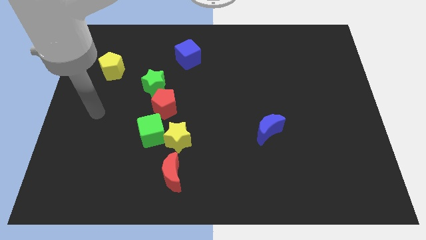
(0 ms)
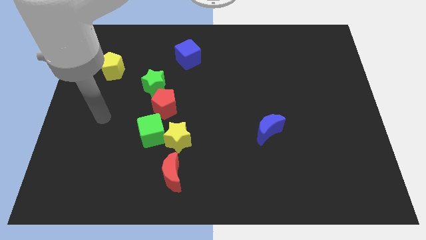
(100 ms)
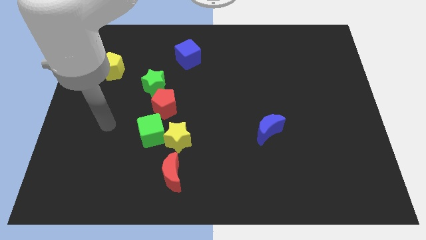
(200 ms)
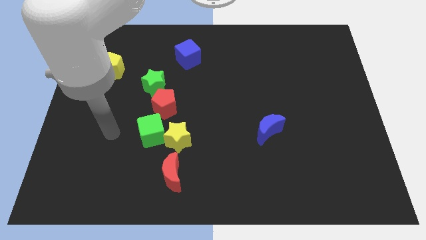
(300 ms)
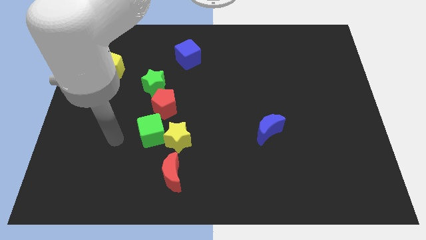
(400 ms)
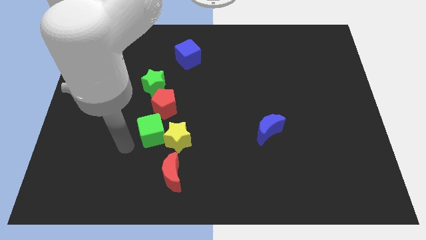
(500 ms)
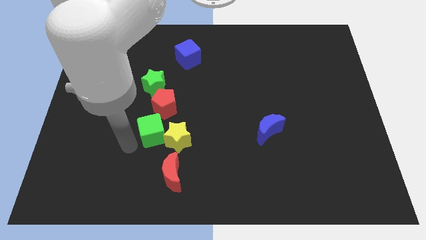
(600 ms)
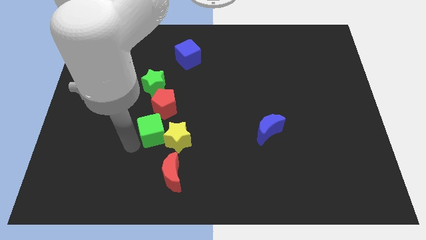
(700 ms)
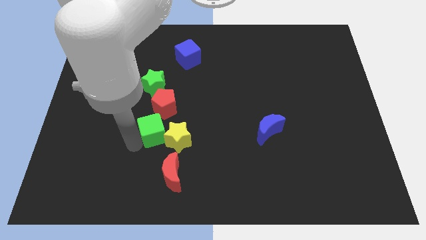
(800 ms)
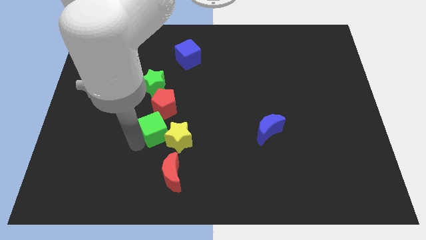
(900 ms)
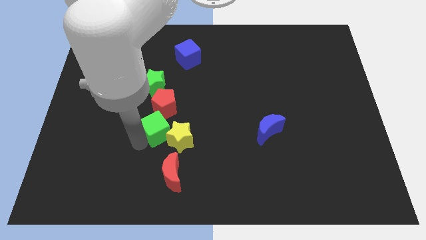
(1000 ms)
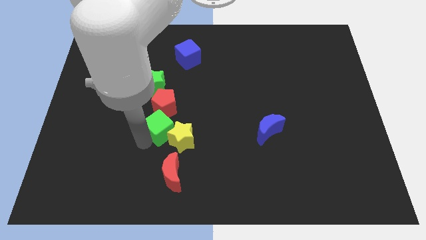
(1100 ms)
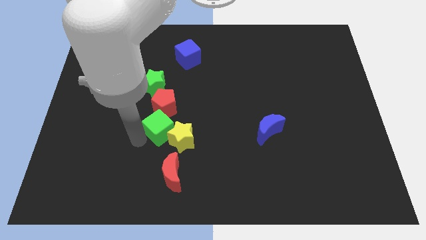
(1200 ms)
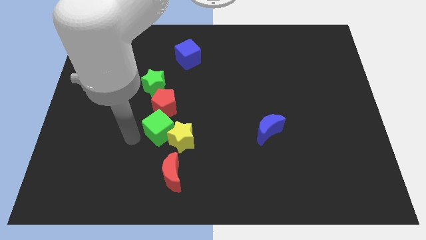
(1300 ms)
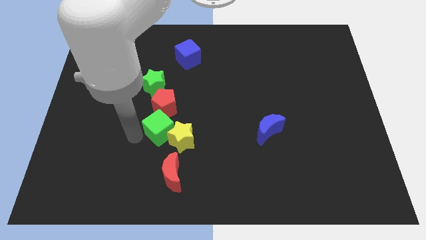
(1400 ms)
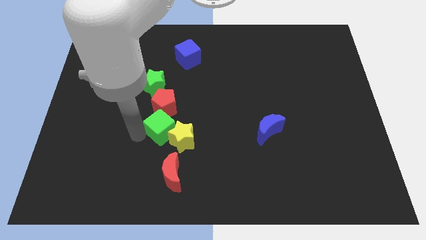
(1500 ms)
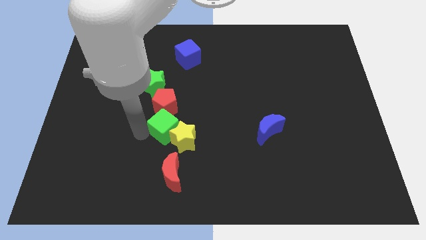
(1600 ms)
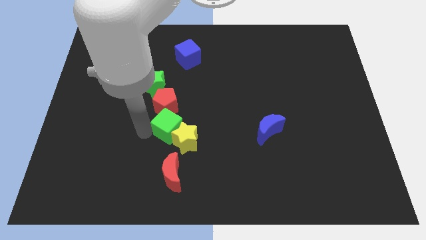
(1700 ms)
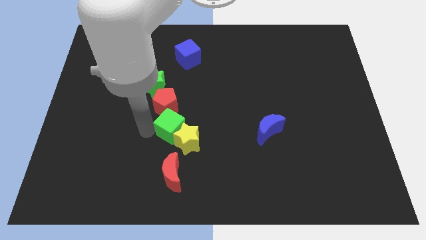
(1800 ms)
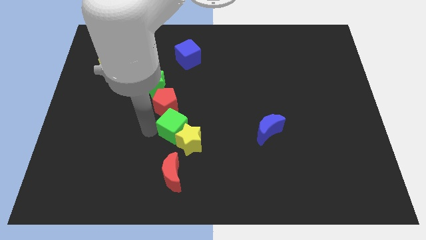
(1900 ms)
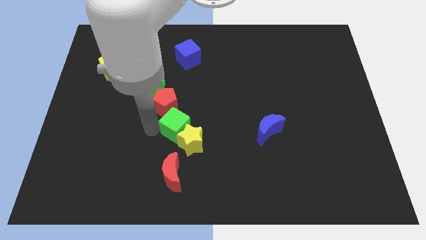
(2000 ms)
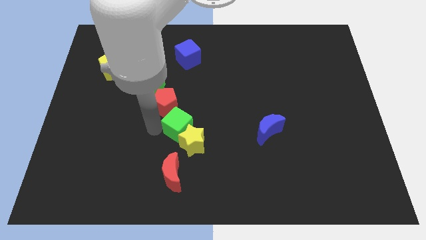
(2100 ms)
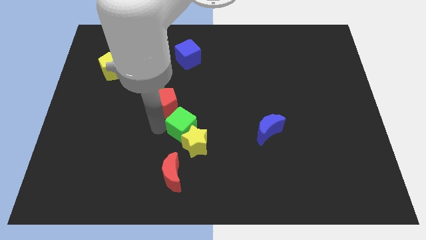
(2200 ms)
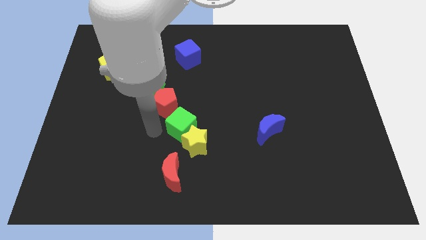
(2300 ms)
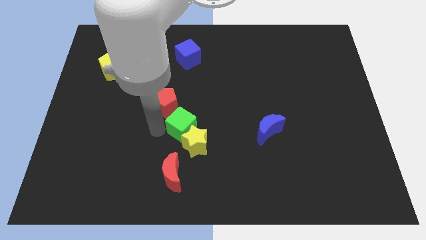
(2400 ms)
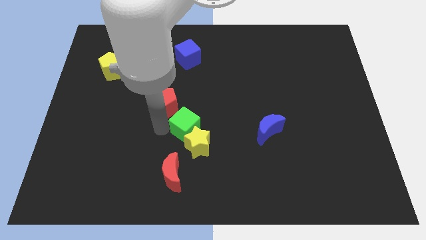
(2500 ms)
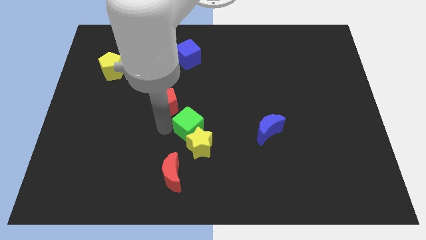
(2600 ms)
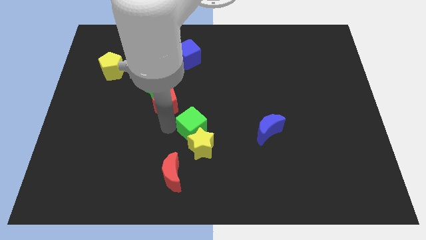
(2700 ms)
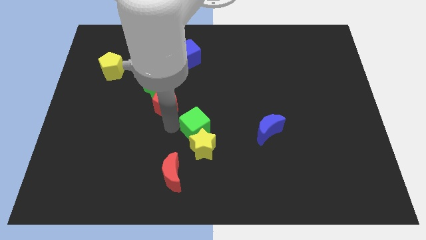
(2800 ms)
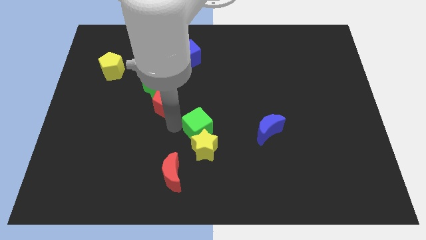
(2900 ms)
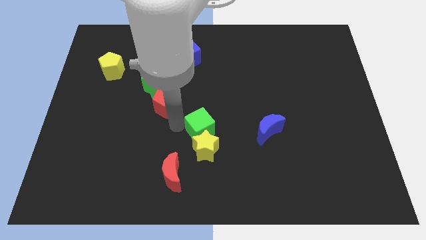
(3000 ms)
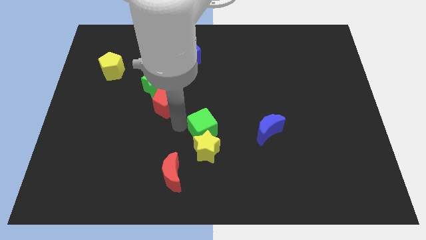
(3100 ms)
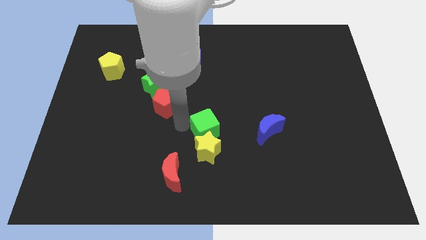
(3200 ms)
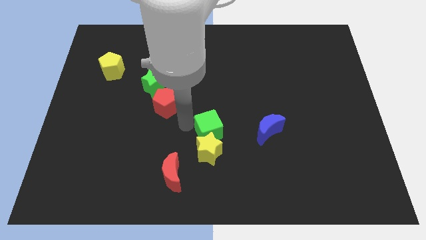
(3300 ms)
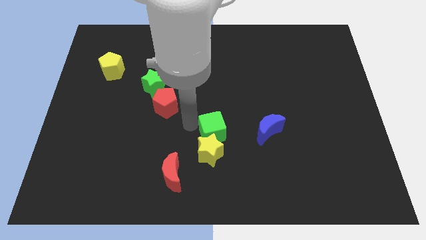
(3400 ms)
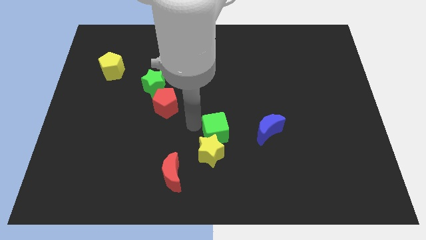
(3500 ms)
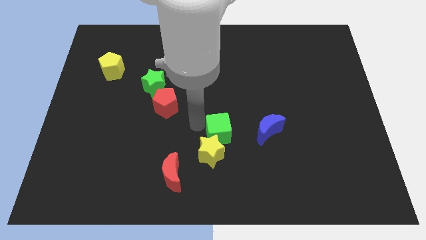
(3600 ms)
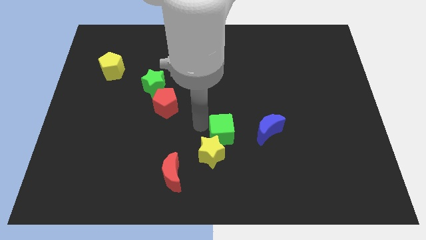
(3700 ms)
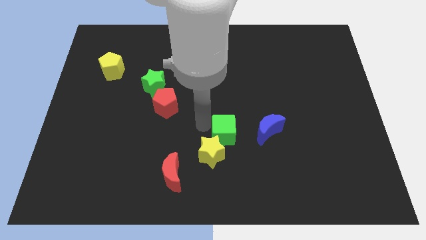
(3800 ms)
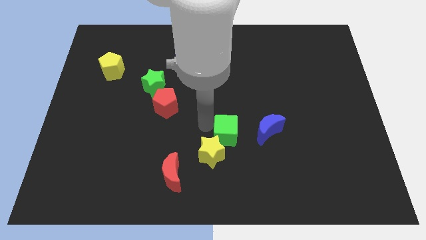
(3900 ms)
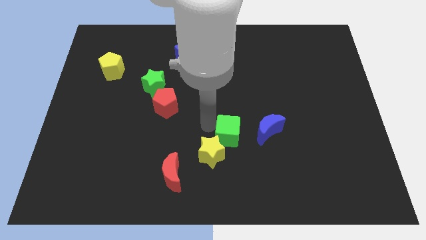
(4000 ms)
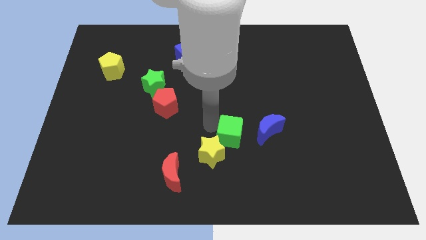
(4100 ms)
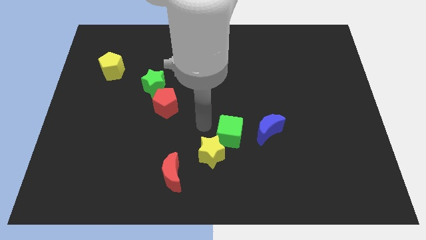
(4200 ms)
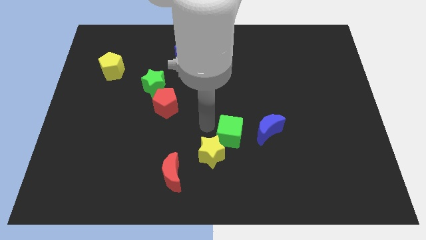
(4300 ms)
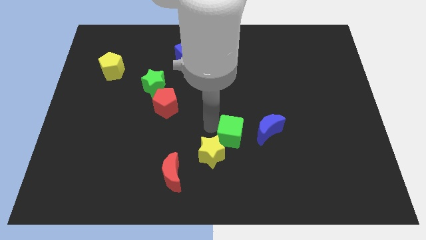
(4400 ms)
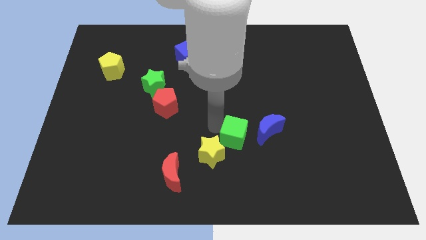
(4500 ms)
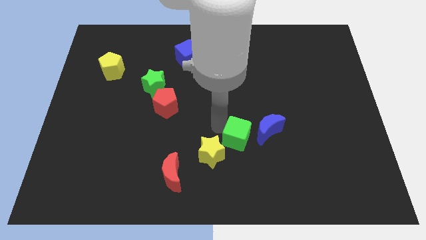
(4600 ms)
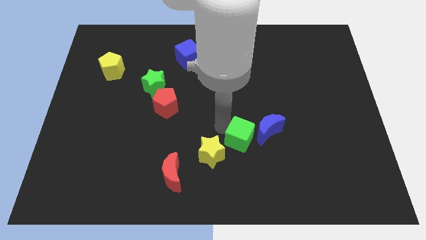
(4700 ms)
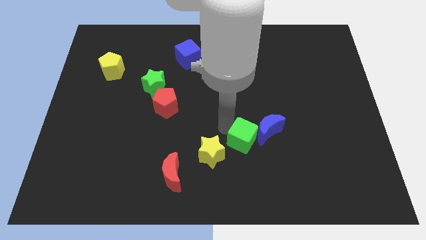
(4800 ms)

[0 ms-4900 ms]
push the green cube right

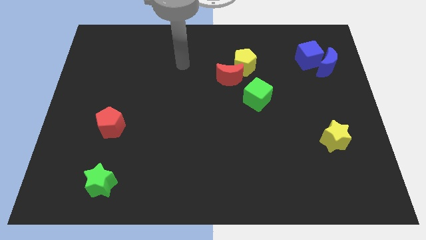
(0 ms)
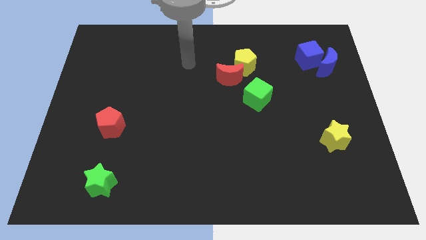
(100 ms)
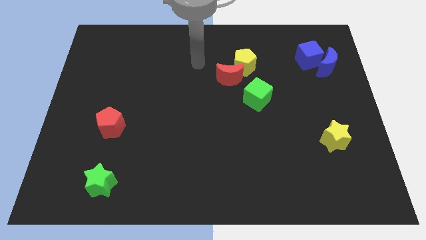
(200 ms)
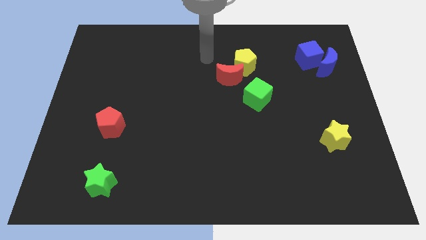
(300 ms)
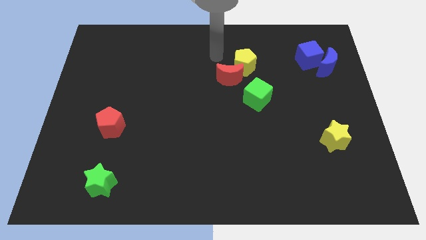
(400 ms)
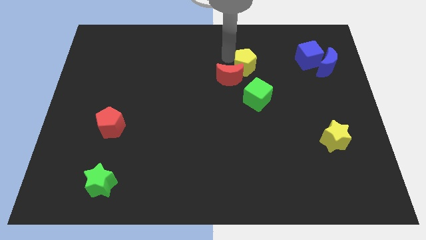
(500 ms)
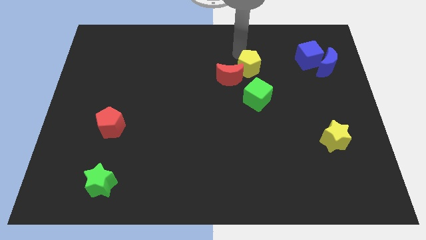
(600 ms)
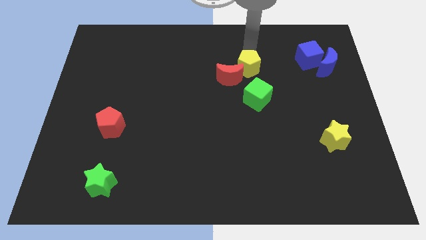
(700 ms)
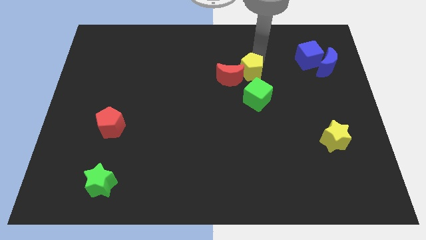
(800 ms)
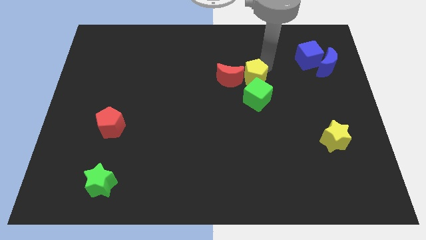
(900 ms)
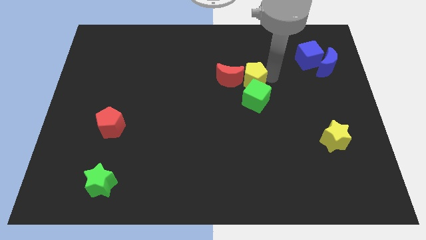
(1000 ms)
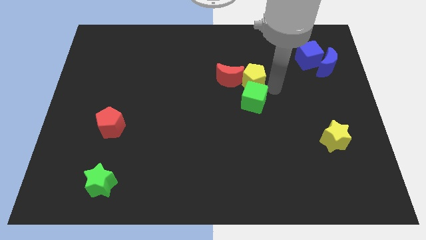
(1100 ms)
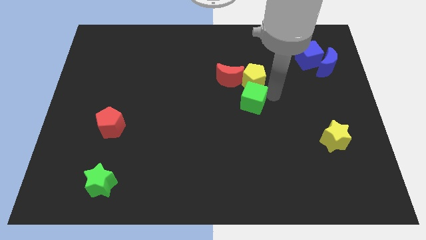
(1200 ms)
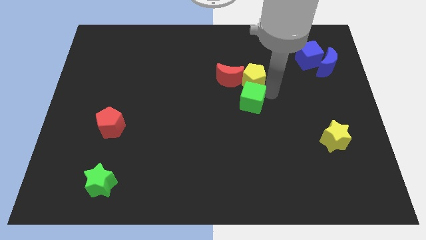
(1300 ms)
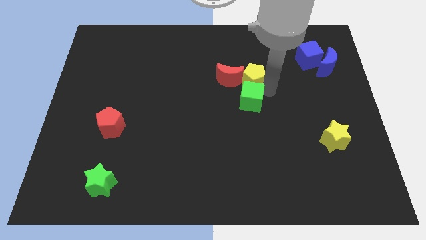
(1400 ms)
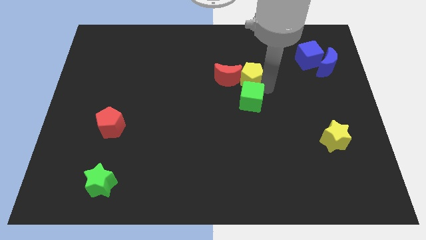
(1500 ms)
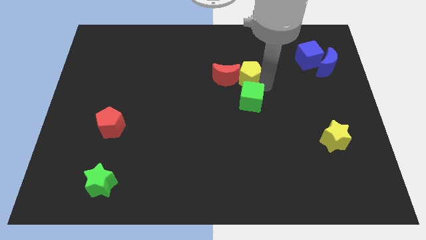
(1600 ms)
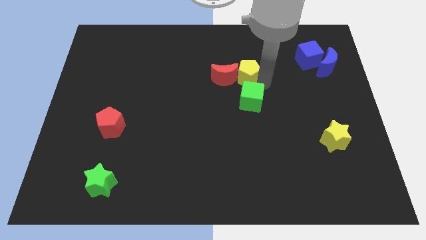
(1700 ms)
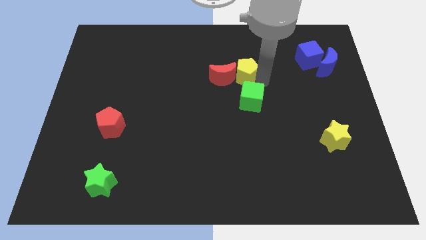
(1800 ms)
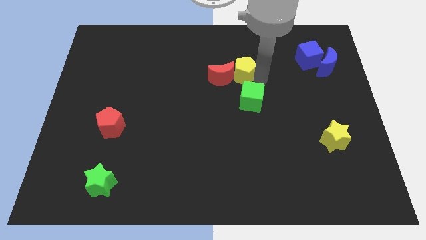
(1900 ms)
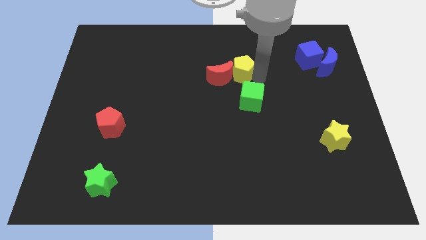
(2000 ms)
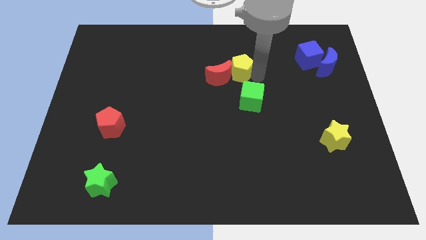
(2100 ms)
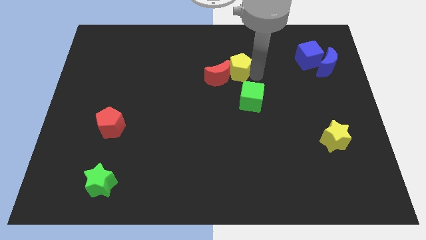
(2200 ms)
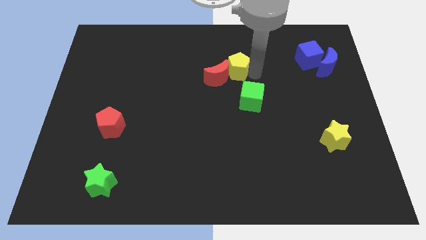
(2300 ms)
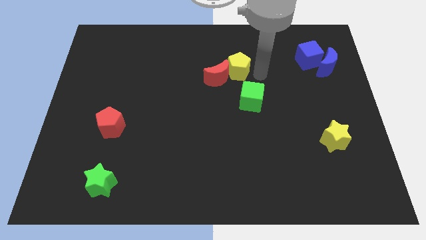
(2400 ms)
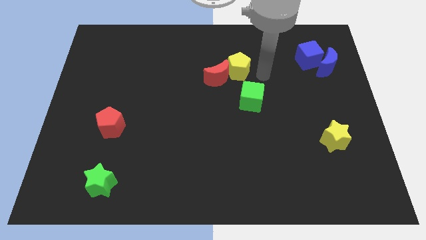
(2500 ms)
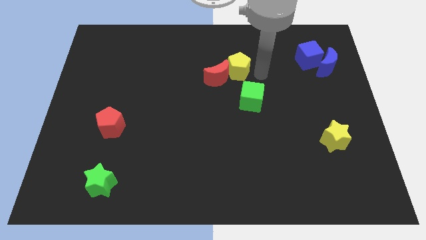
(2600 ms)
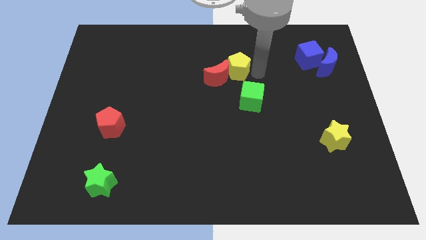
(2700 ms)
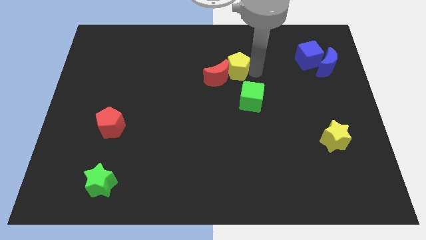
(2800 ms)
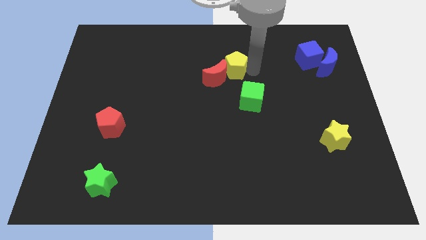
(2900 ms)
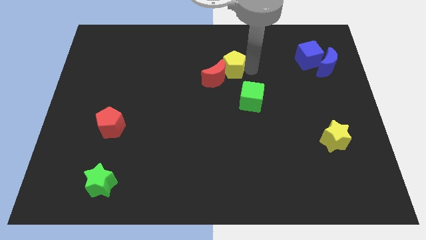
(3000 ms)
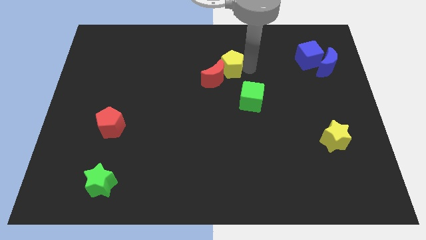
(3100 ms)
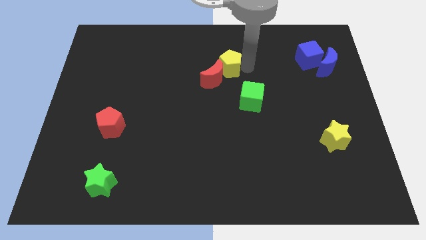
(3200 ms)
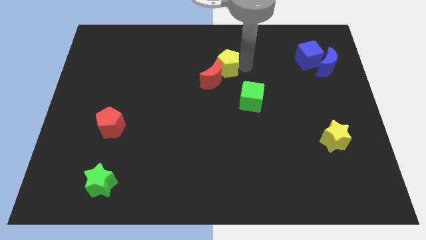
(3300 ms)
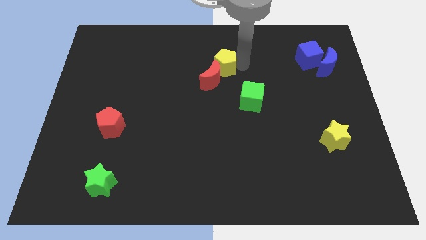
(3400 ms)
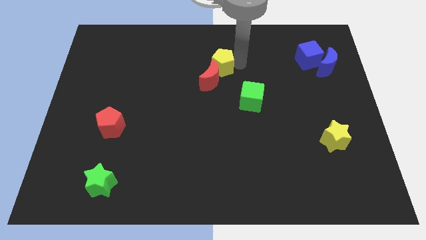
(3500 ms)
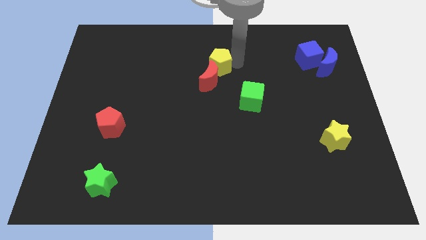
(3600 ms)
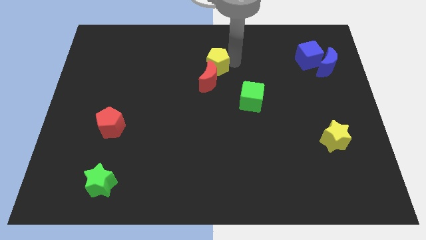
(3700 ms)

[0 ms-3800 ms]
slightly slide the yellow pentagon left
